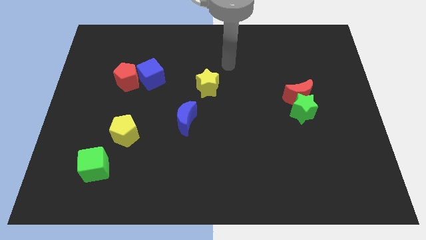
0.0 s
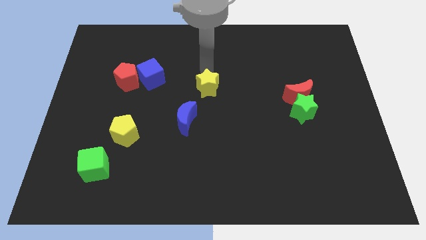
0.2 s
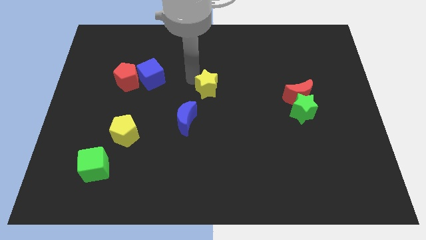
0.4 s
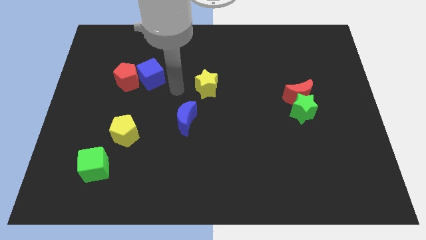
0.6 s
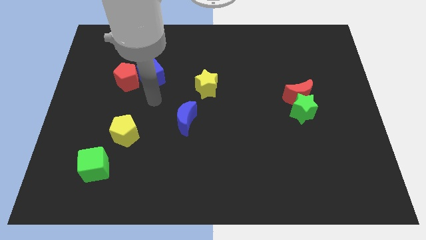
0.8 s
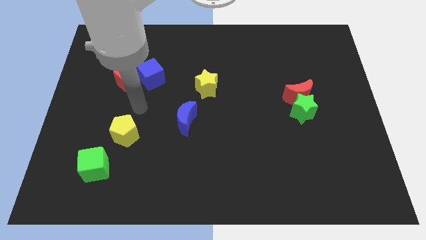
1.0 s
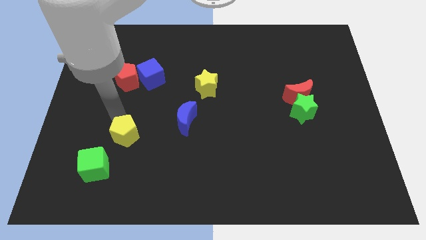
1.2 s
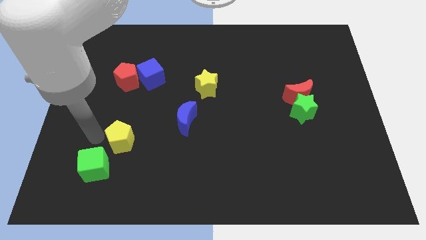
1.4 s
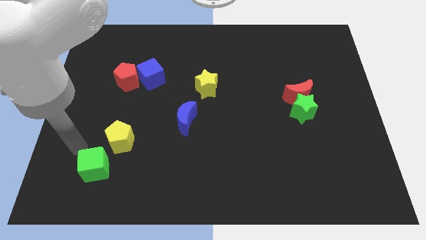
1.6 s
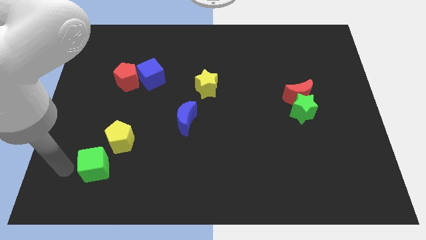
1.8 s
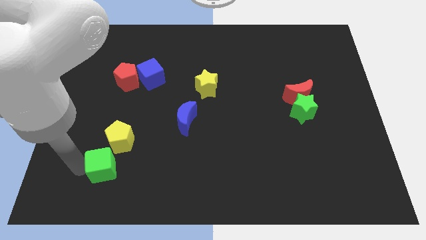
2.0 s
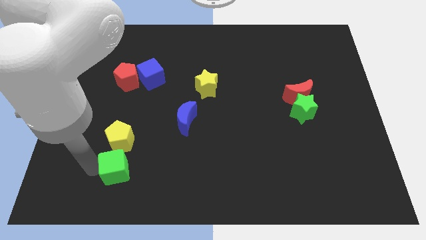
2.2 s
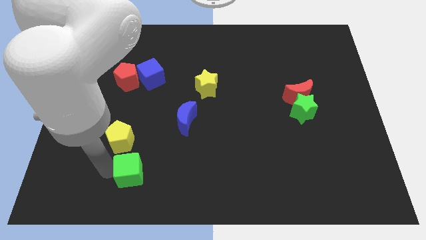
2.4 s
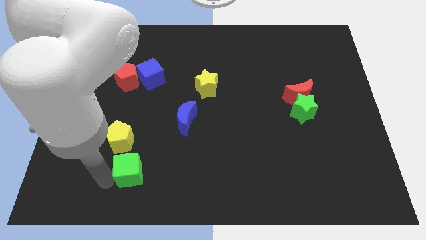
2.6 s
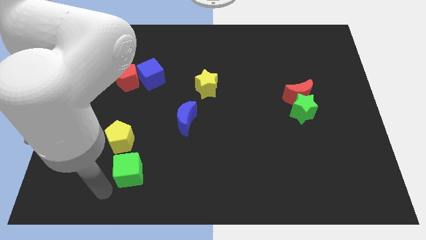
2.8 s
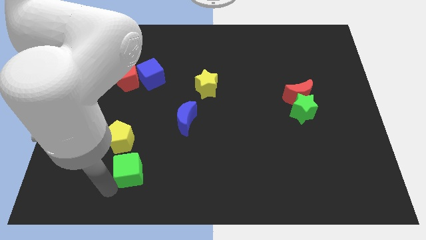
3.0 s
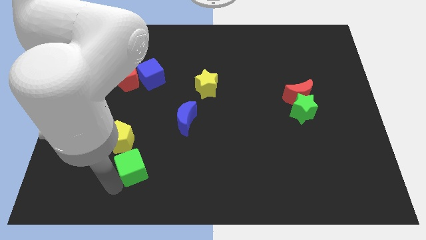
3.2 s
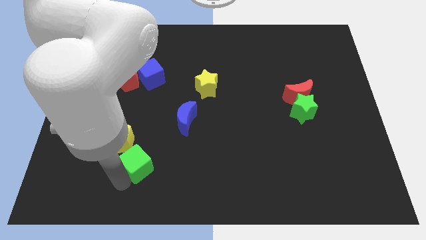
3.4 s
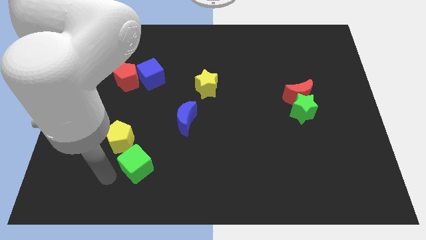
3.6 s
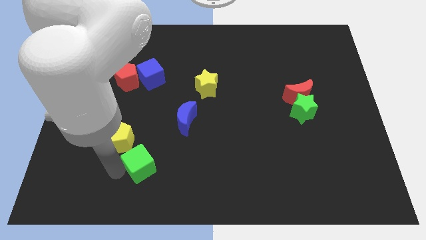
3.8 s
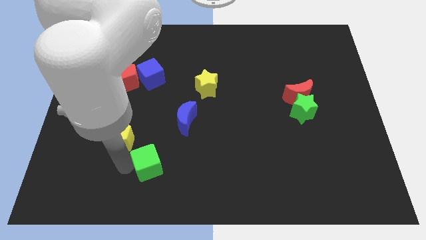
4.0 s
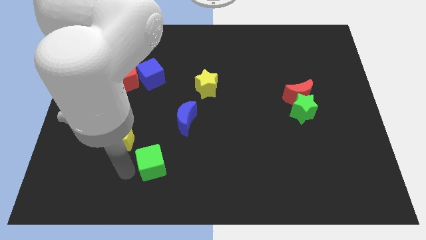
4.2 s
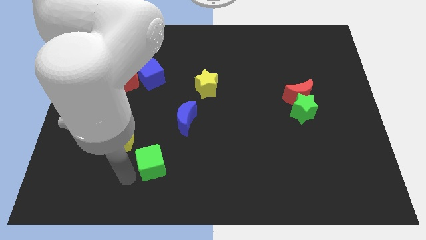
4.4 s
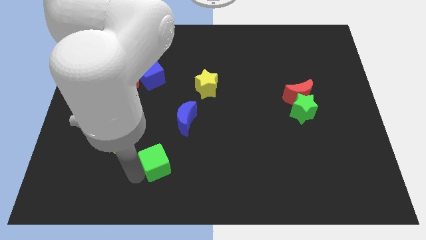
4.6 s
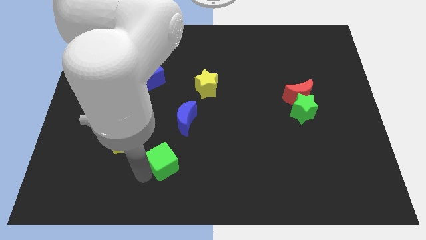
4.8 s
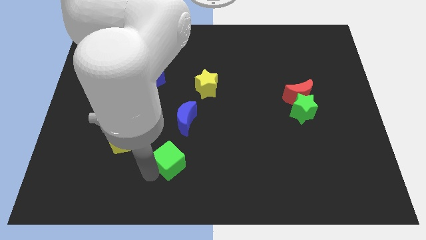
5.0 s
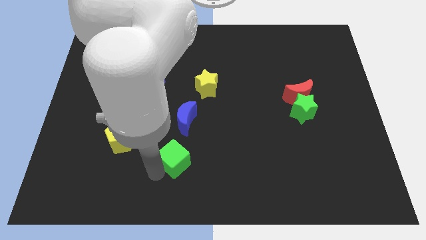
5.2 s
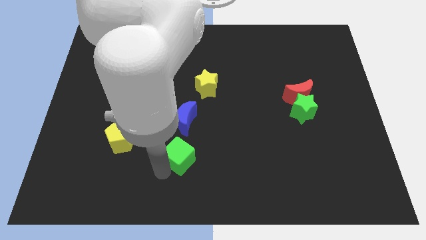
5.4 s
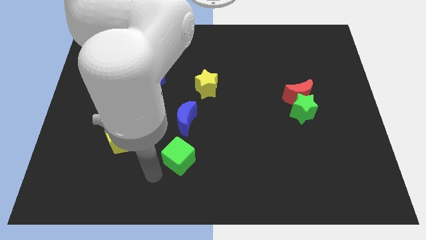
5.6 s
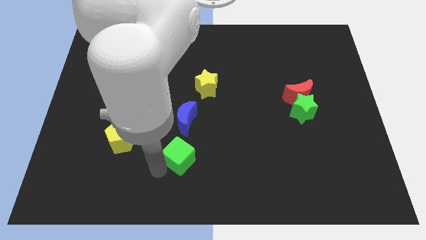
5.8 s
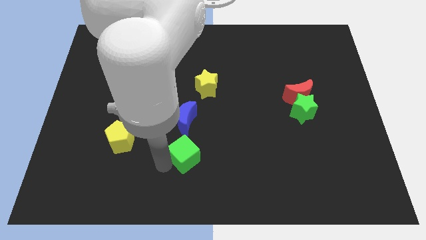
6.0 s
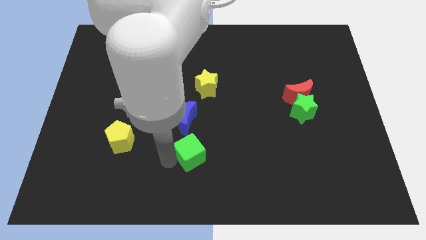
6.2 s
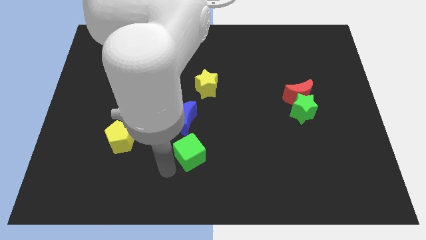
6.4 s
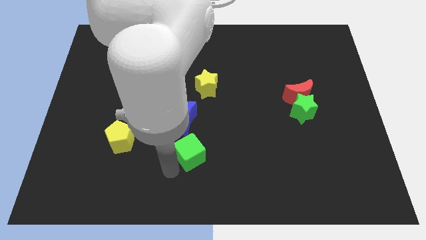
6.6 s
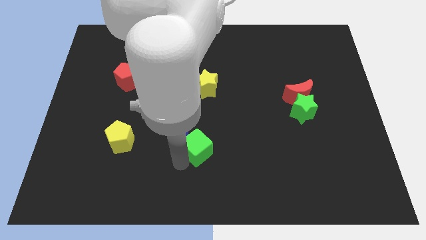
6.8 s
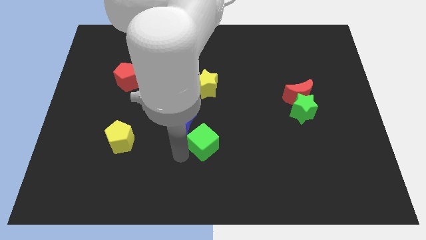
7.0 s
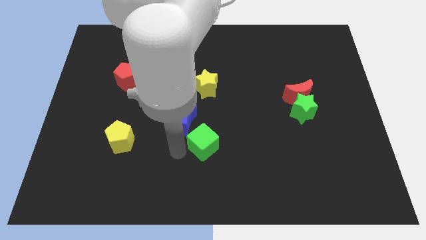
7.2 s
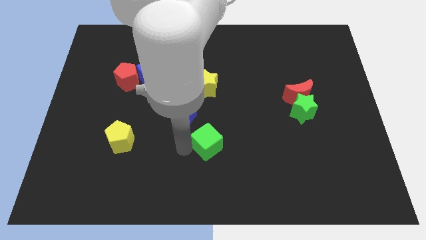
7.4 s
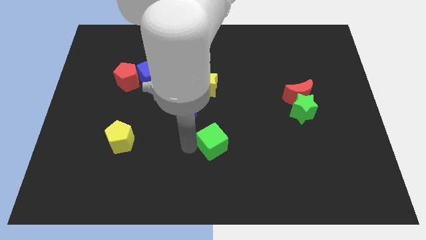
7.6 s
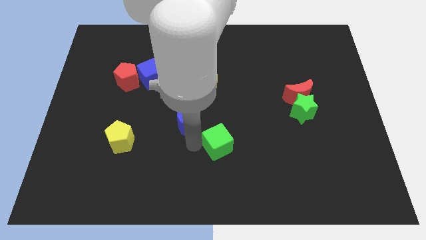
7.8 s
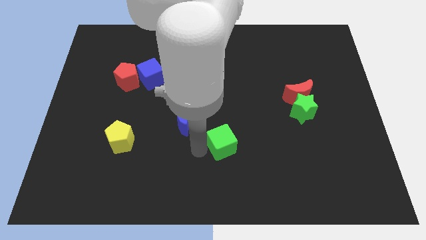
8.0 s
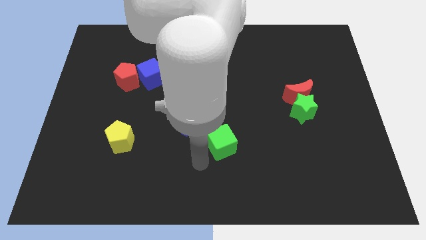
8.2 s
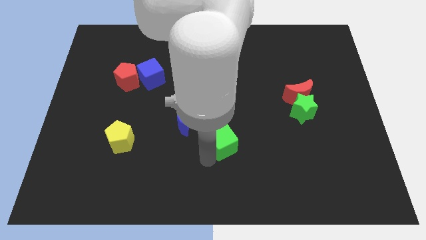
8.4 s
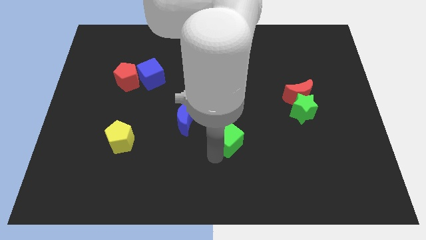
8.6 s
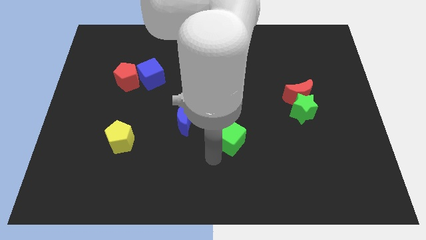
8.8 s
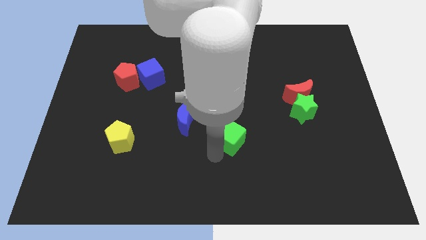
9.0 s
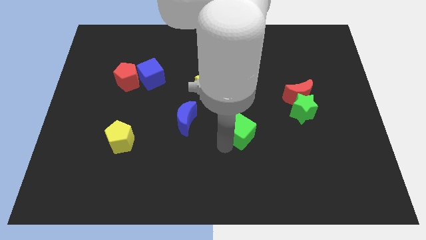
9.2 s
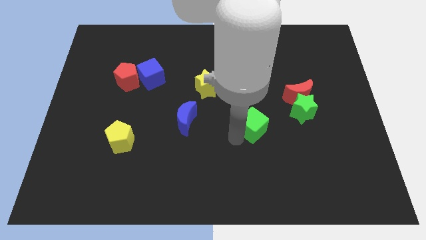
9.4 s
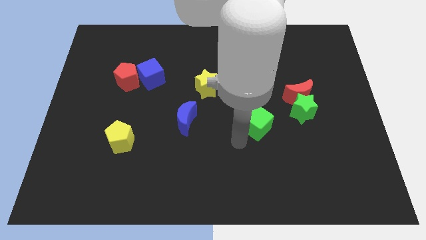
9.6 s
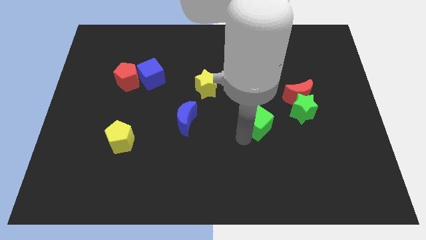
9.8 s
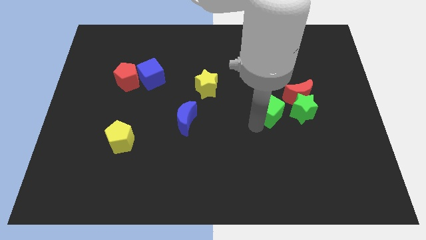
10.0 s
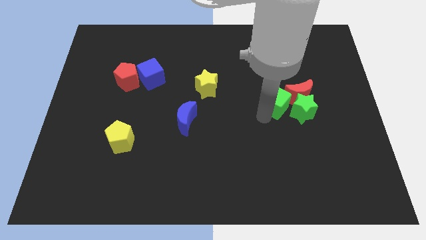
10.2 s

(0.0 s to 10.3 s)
slide the green cube towards the red moon
